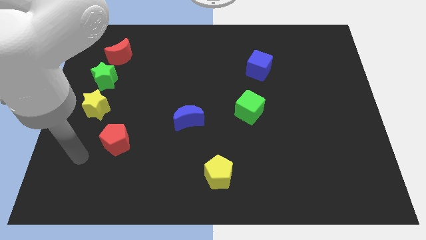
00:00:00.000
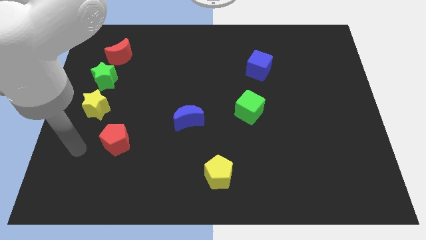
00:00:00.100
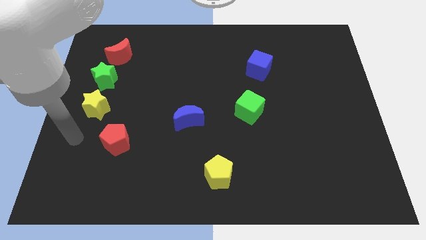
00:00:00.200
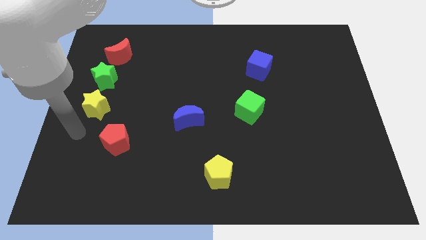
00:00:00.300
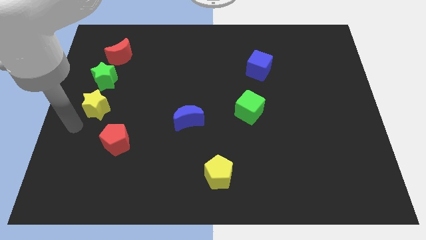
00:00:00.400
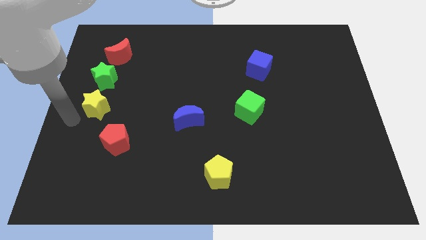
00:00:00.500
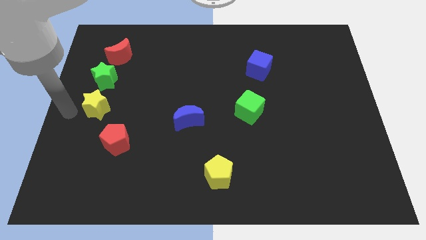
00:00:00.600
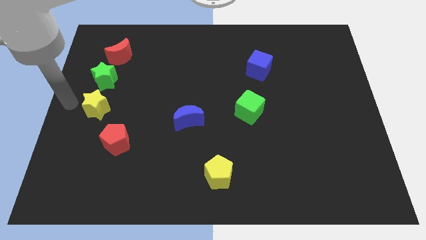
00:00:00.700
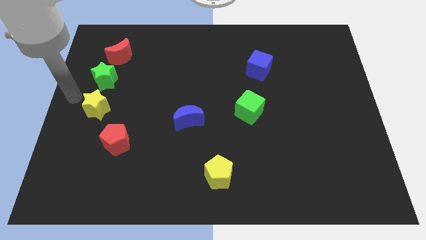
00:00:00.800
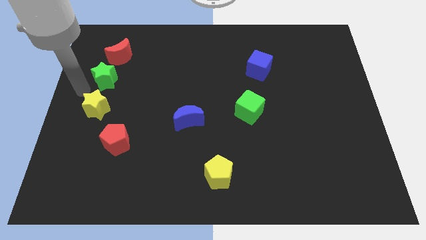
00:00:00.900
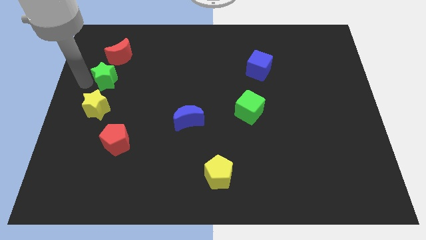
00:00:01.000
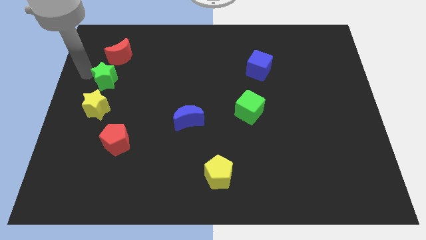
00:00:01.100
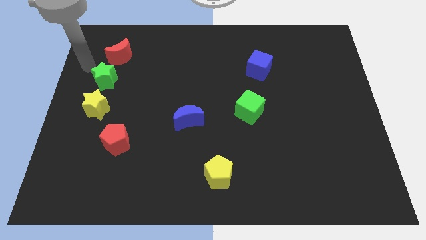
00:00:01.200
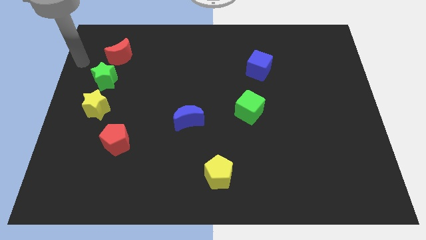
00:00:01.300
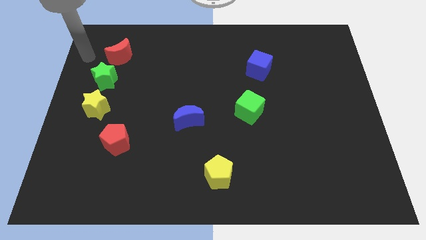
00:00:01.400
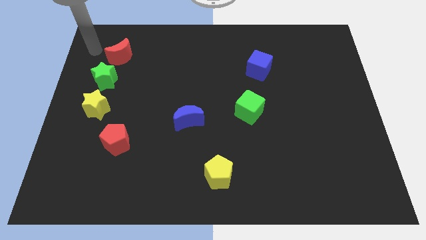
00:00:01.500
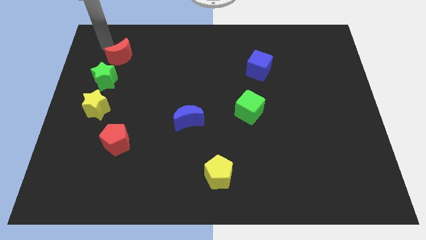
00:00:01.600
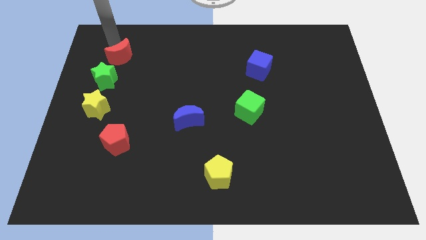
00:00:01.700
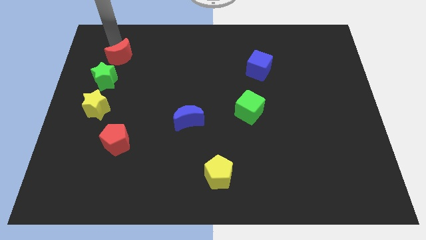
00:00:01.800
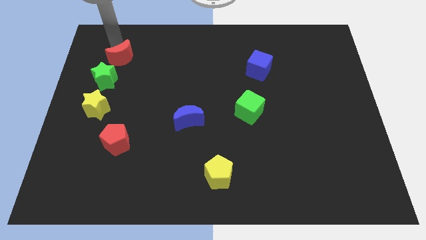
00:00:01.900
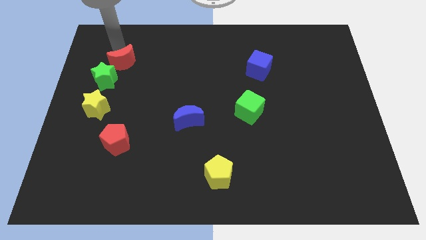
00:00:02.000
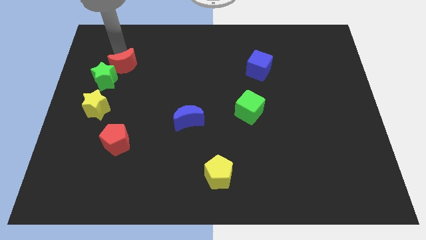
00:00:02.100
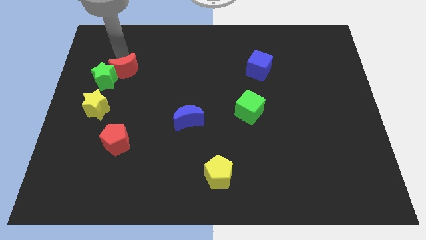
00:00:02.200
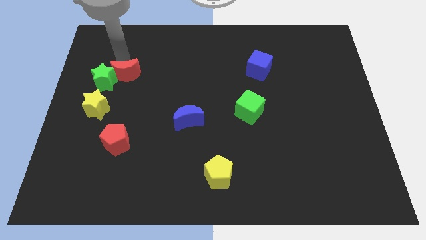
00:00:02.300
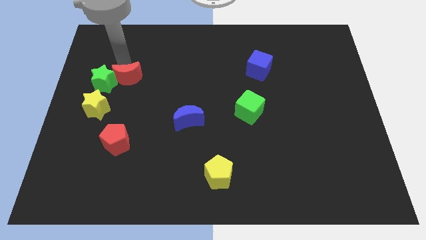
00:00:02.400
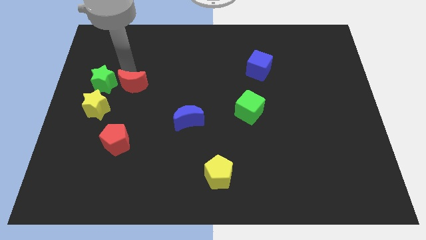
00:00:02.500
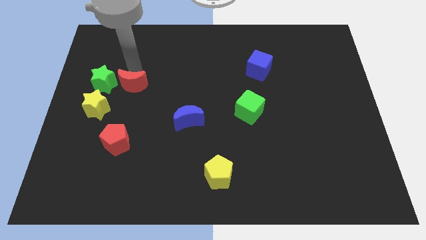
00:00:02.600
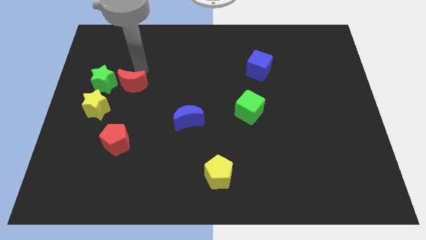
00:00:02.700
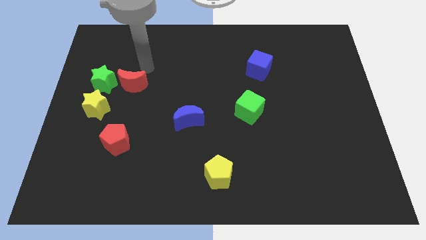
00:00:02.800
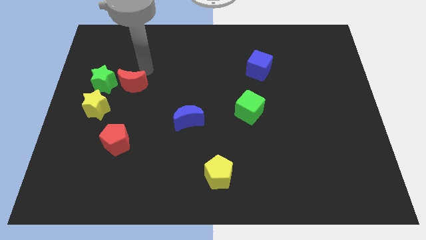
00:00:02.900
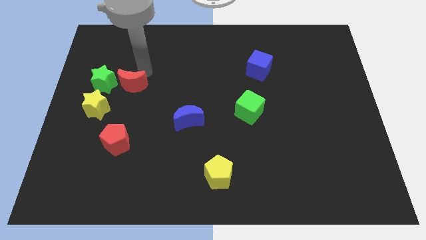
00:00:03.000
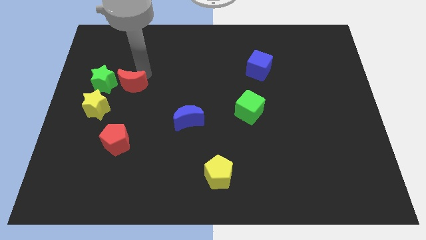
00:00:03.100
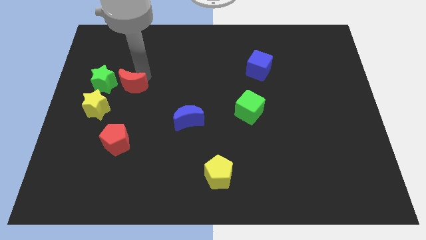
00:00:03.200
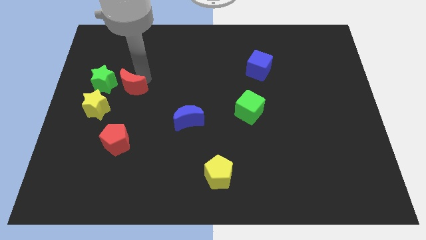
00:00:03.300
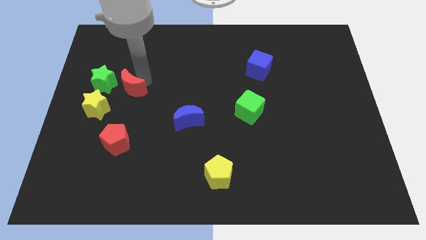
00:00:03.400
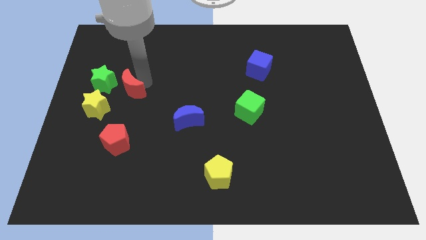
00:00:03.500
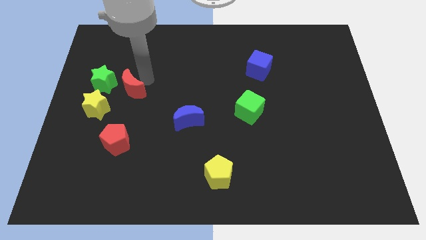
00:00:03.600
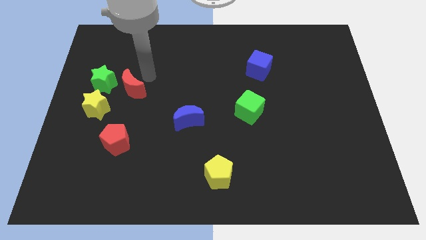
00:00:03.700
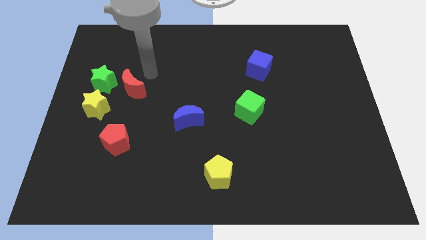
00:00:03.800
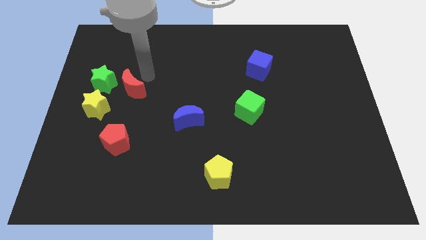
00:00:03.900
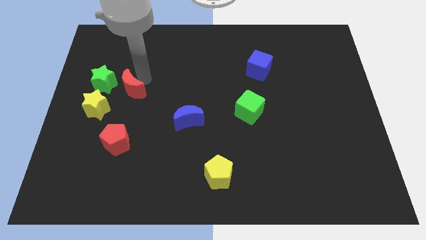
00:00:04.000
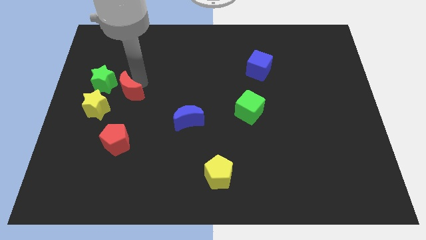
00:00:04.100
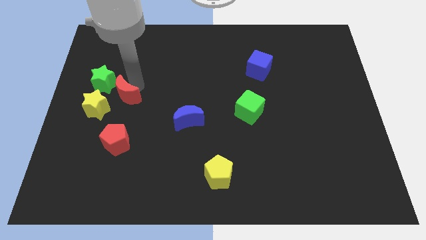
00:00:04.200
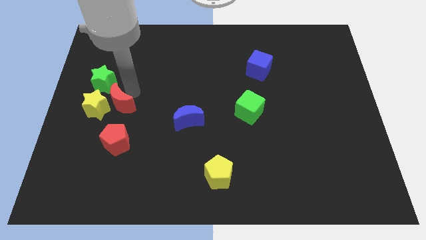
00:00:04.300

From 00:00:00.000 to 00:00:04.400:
slide the red moon towards the yellow star

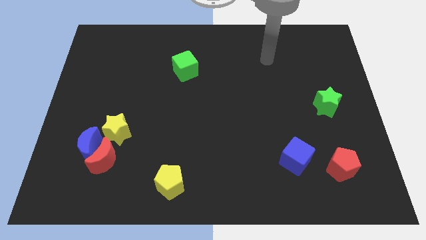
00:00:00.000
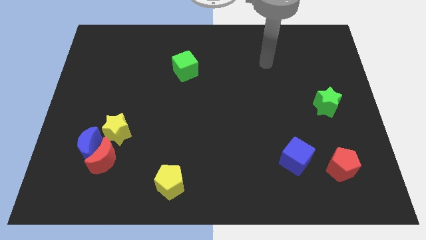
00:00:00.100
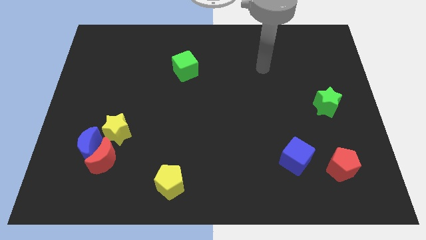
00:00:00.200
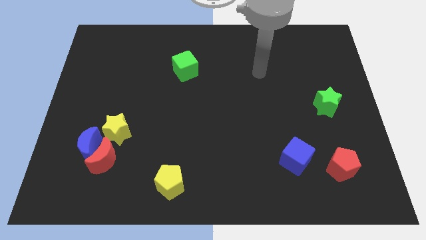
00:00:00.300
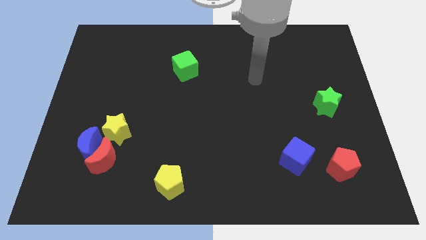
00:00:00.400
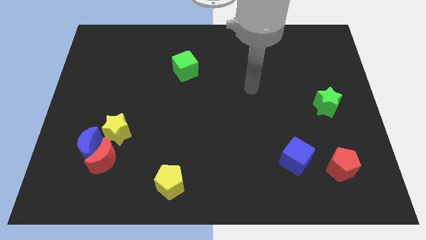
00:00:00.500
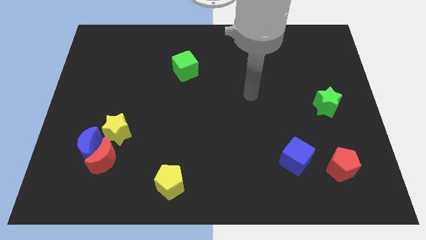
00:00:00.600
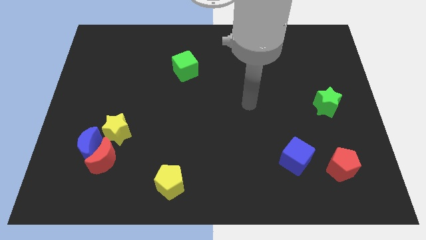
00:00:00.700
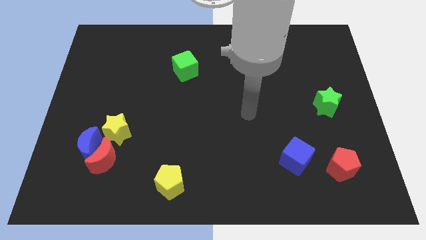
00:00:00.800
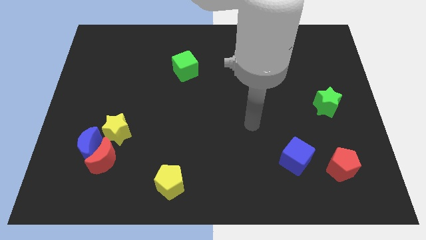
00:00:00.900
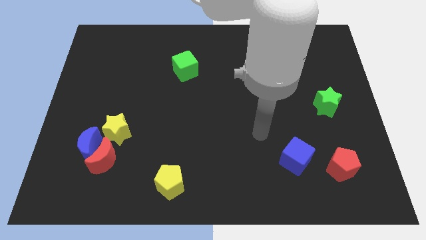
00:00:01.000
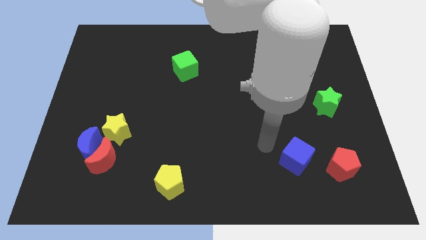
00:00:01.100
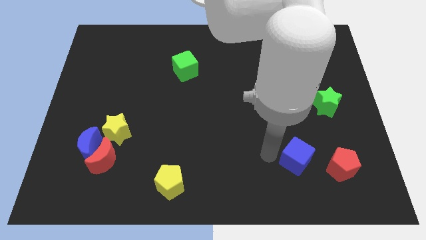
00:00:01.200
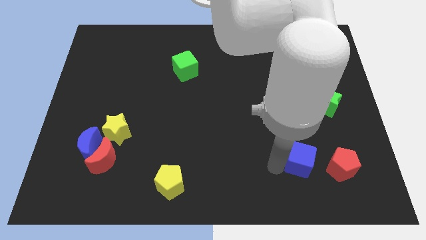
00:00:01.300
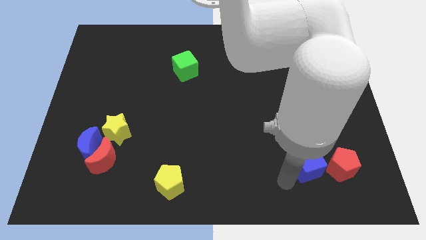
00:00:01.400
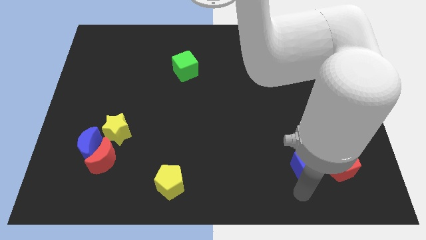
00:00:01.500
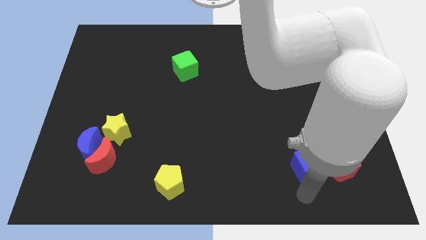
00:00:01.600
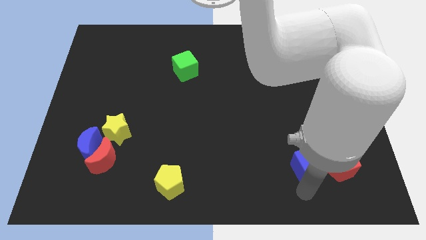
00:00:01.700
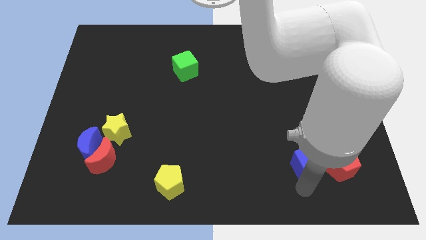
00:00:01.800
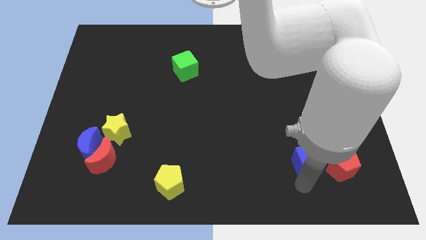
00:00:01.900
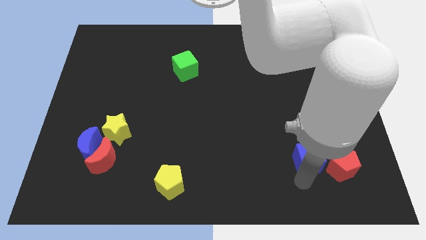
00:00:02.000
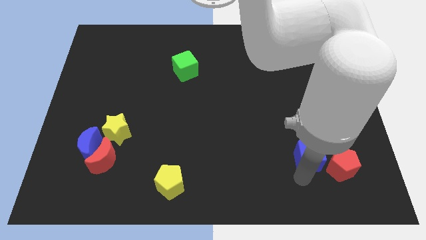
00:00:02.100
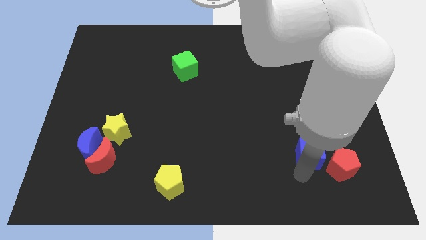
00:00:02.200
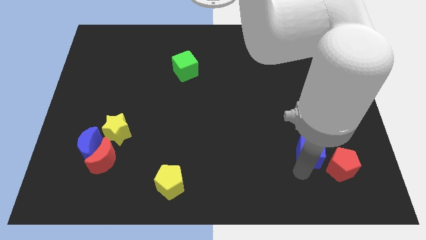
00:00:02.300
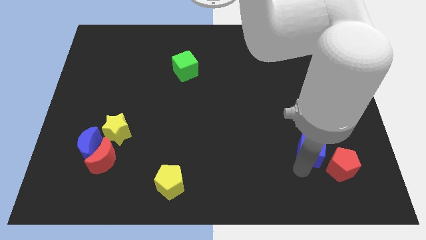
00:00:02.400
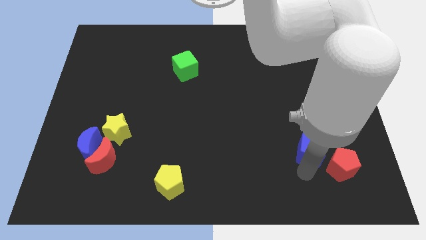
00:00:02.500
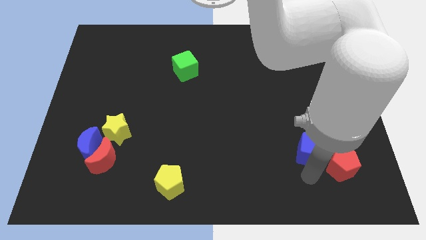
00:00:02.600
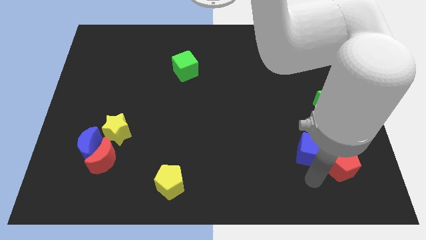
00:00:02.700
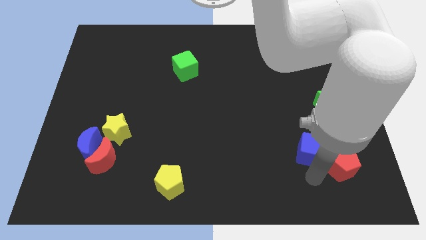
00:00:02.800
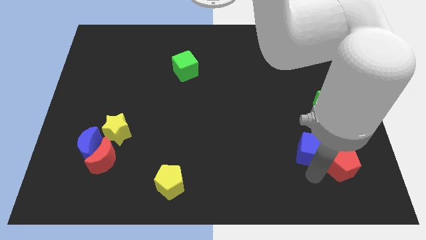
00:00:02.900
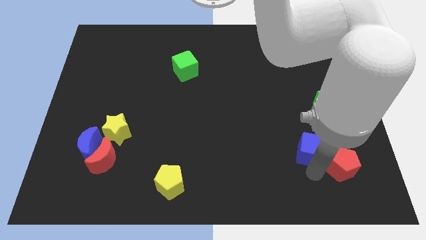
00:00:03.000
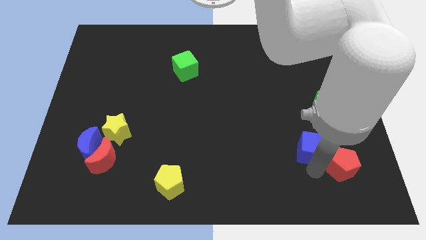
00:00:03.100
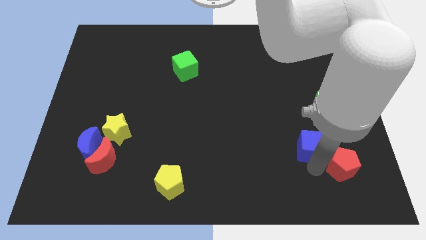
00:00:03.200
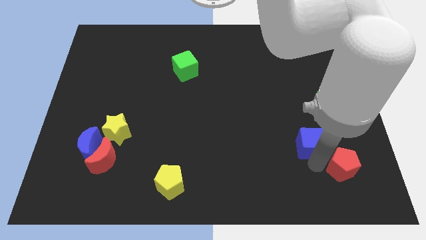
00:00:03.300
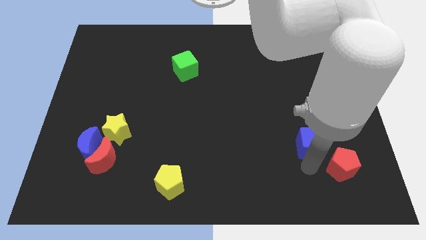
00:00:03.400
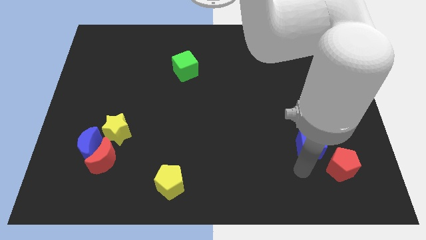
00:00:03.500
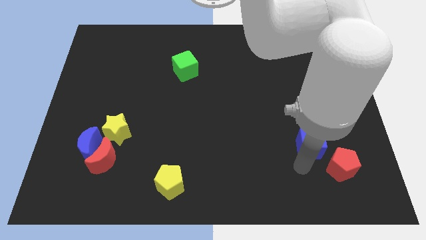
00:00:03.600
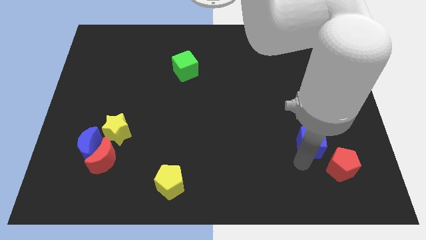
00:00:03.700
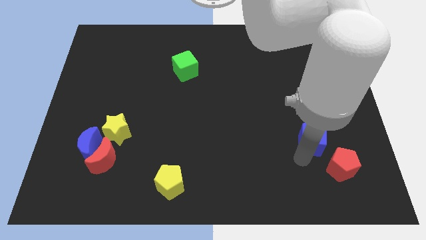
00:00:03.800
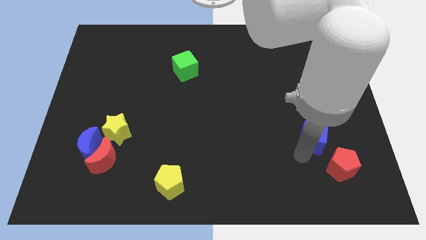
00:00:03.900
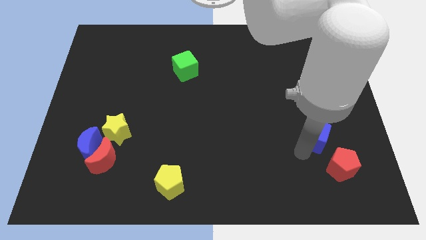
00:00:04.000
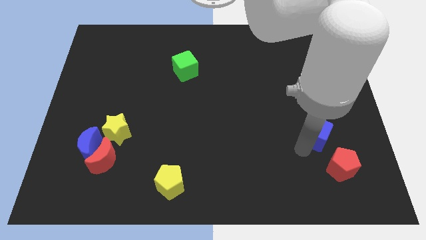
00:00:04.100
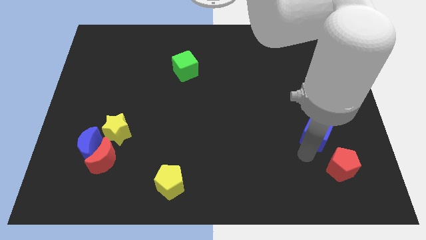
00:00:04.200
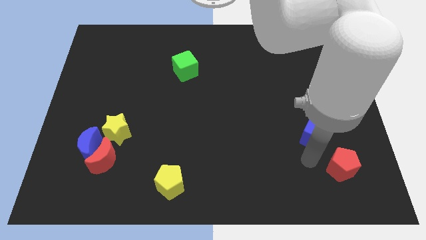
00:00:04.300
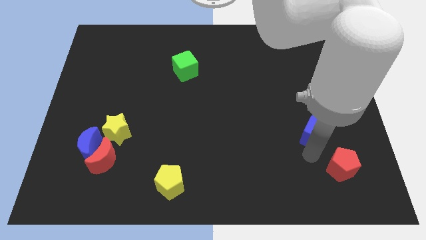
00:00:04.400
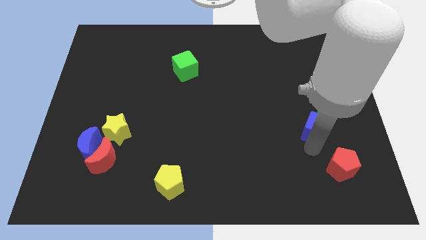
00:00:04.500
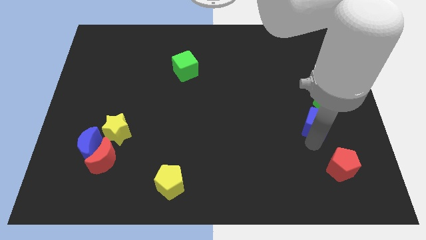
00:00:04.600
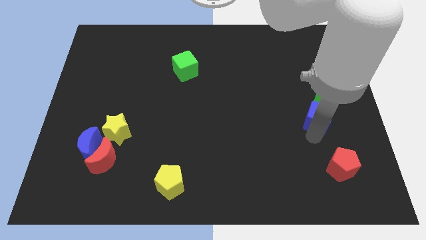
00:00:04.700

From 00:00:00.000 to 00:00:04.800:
put the blue cube towards the green star
